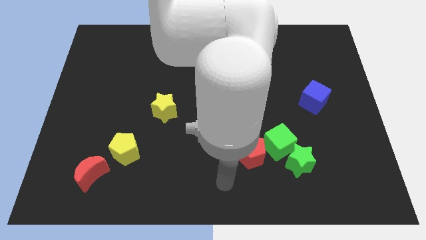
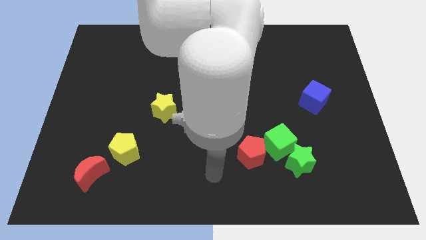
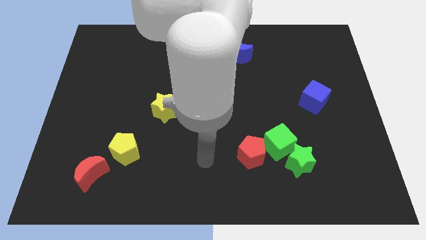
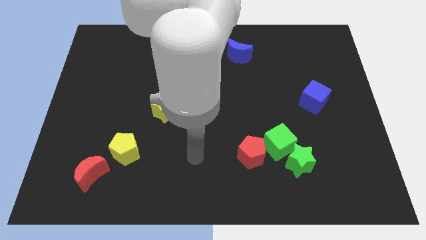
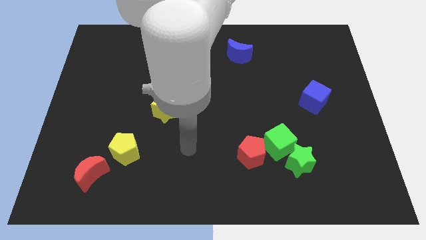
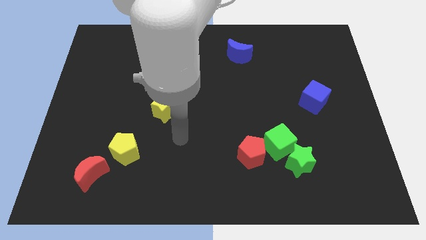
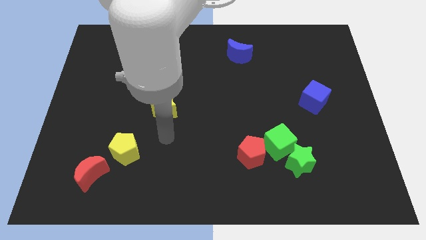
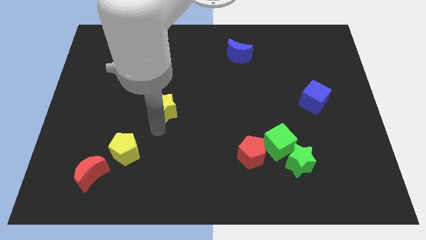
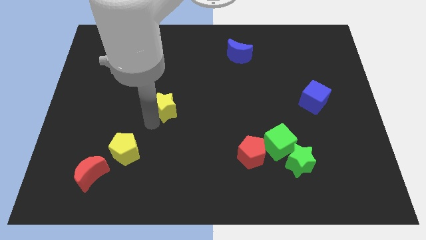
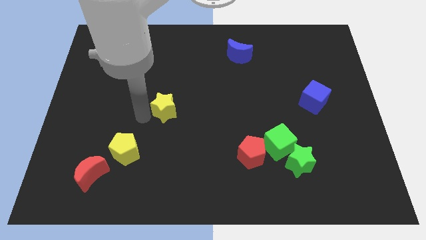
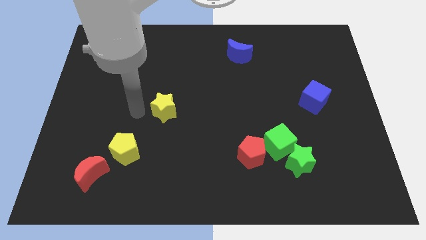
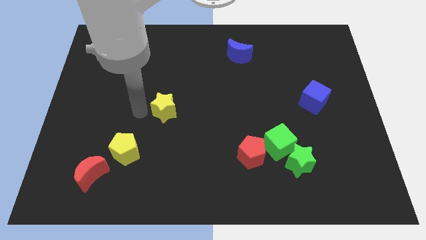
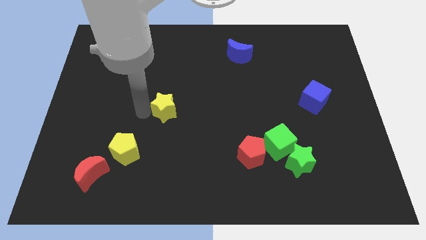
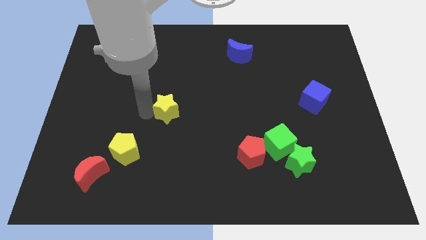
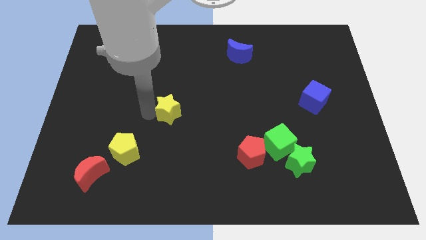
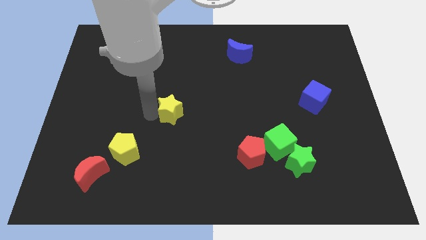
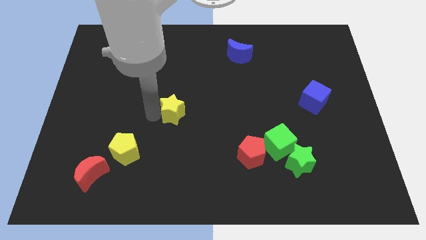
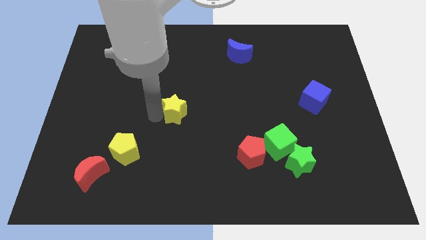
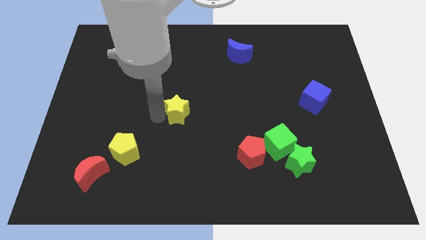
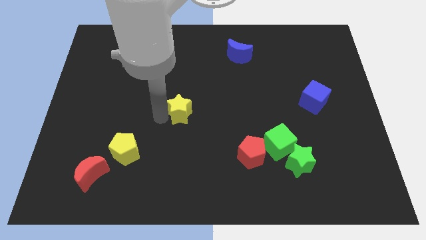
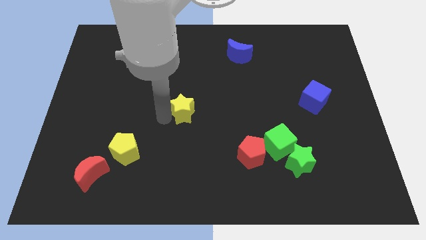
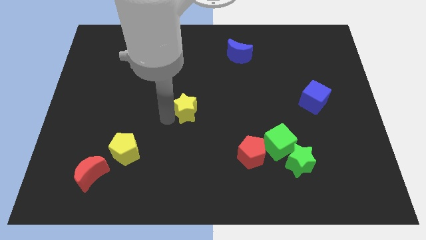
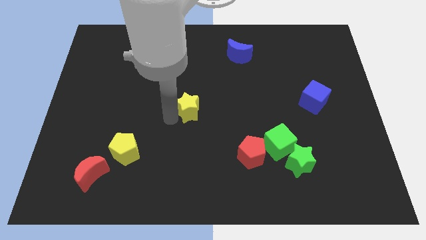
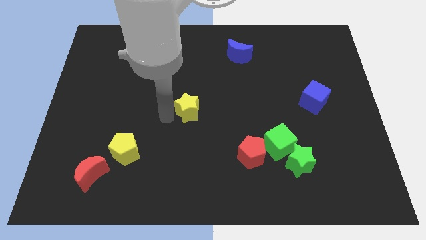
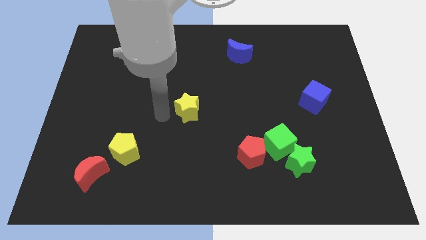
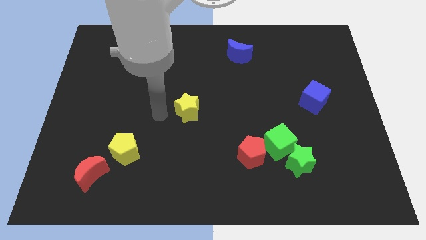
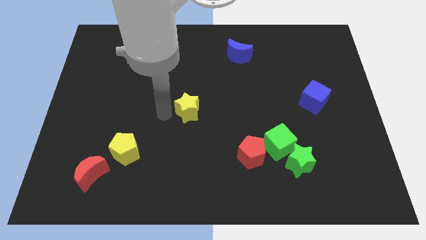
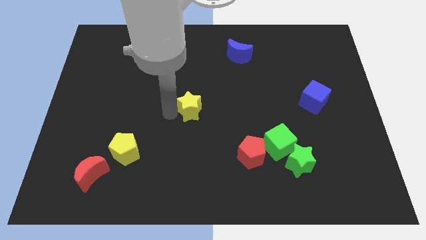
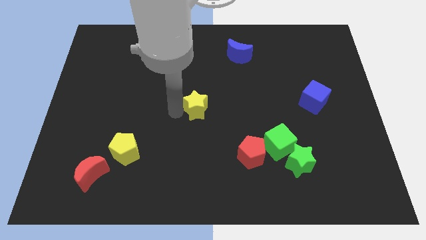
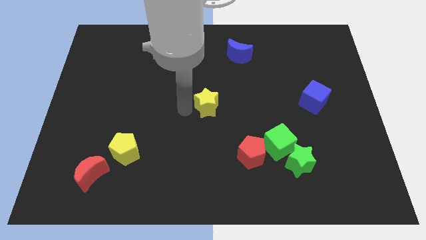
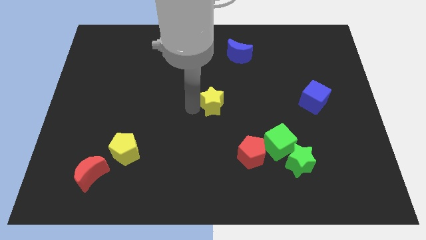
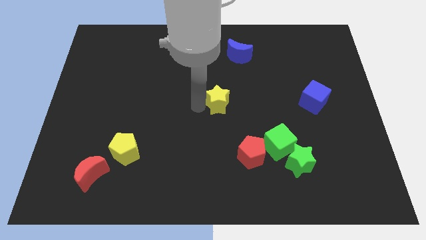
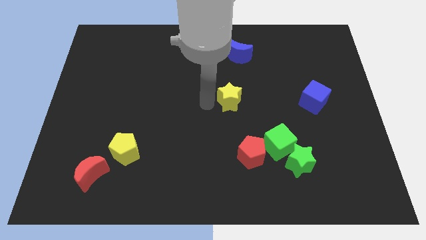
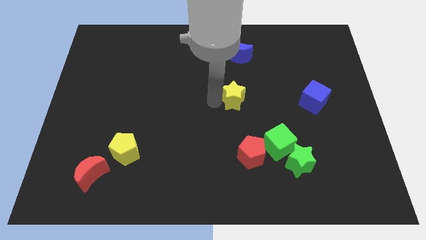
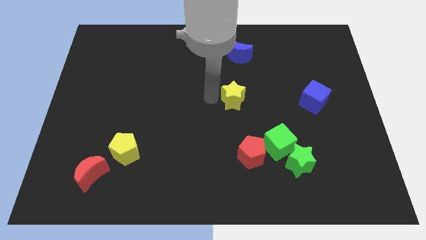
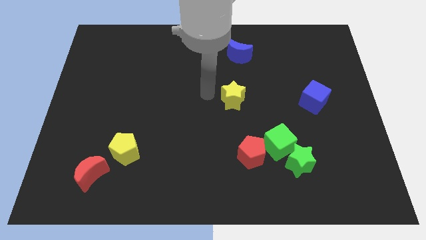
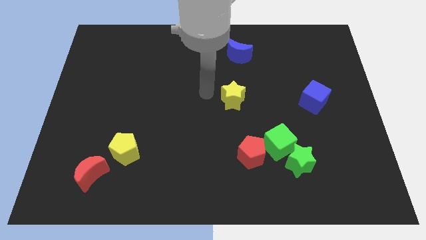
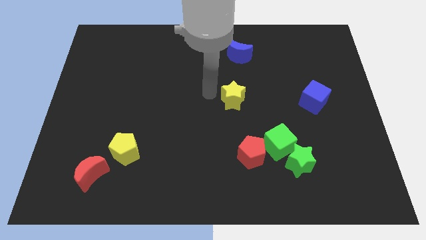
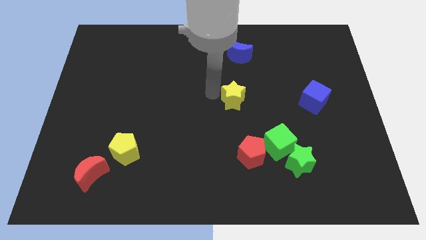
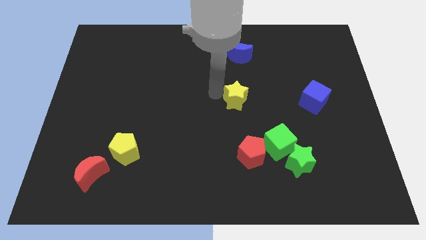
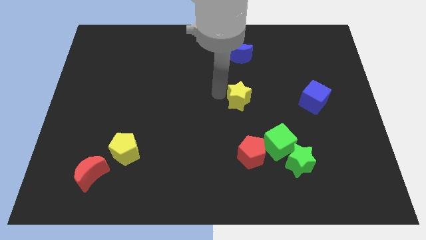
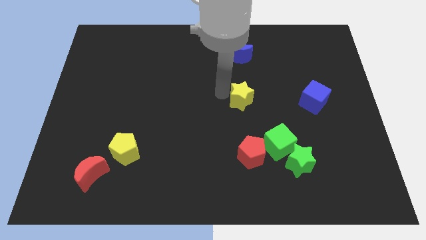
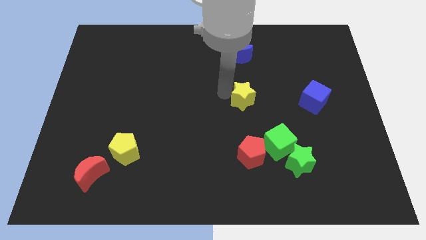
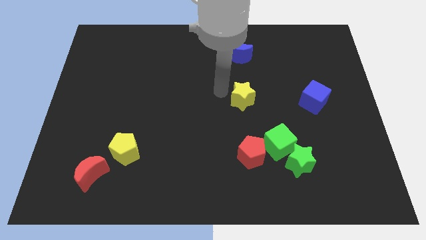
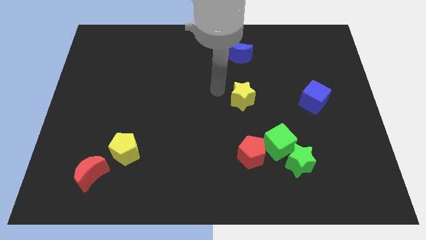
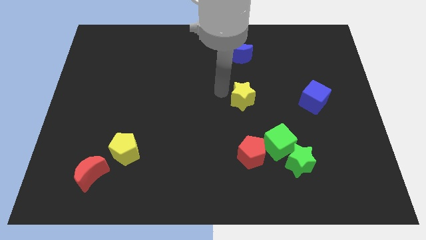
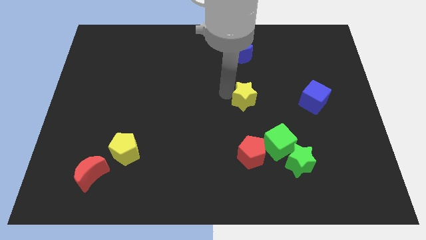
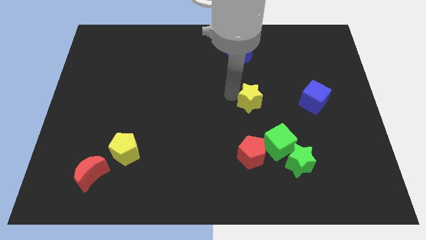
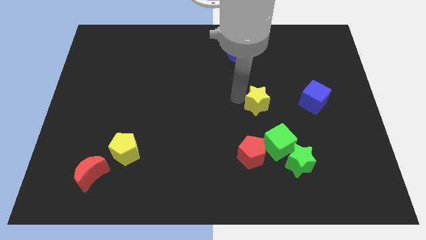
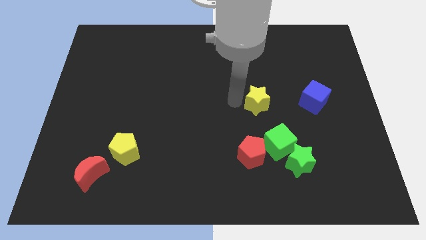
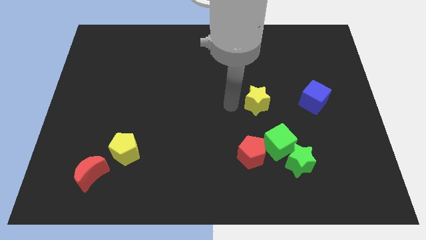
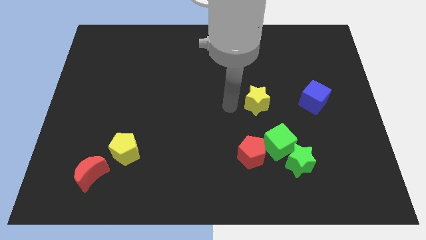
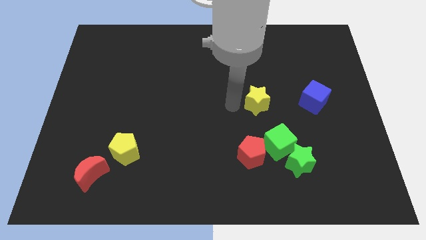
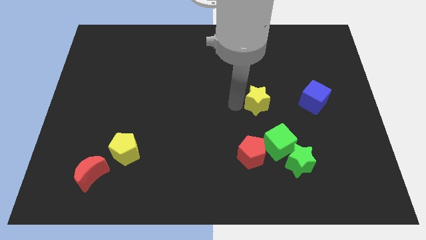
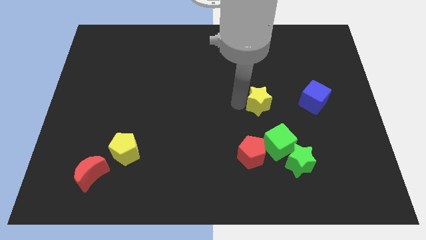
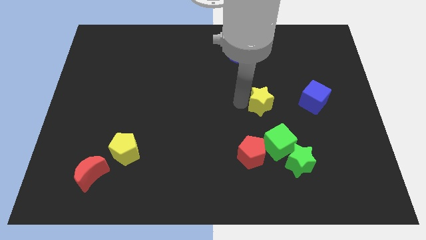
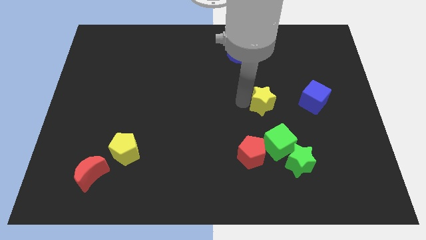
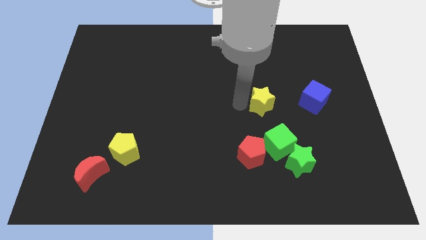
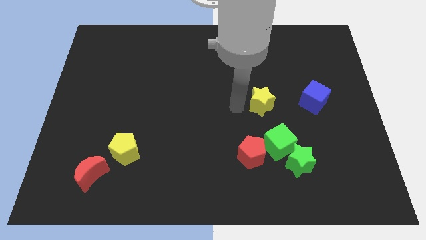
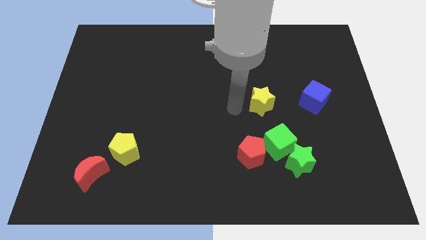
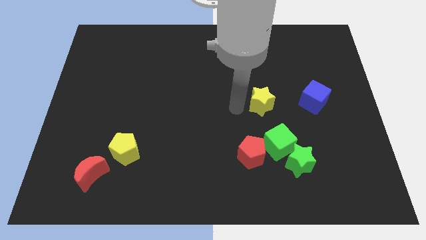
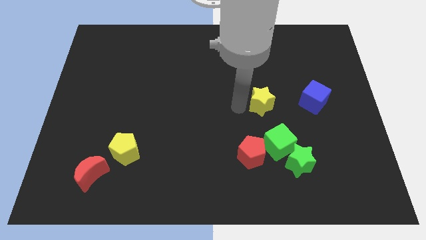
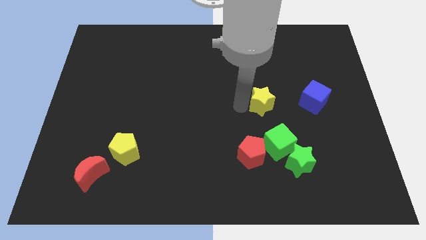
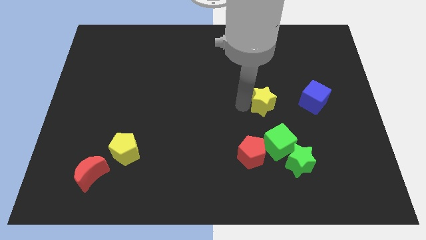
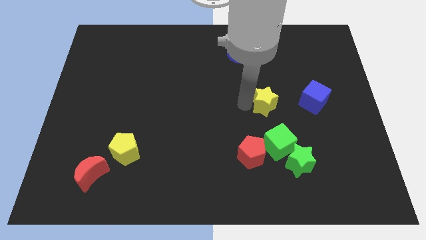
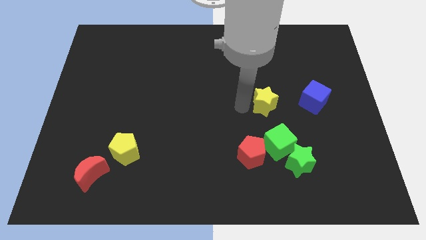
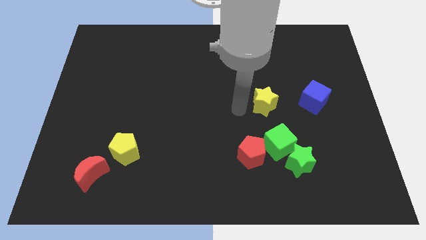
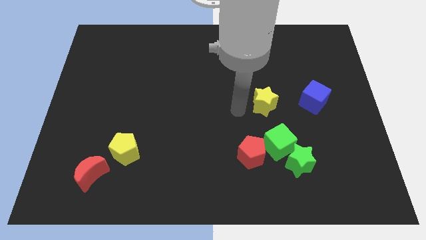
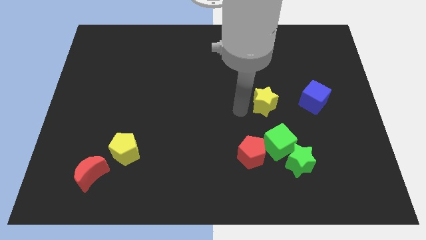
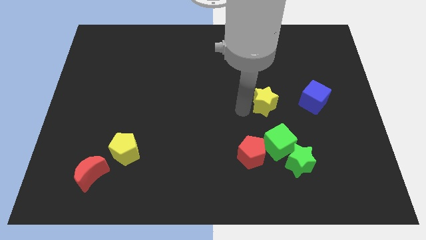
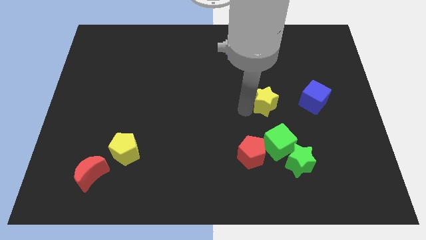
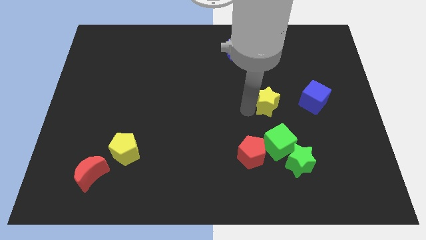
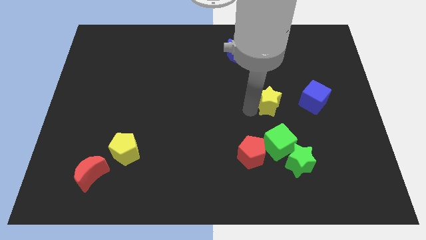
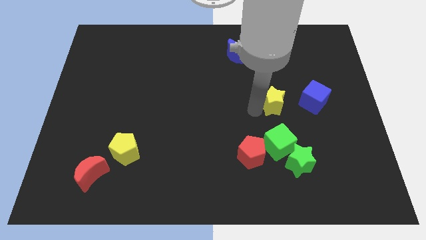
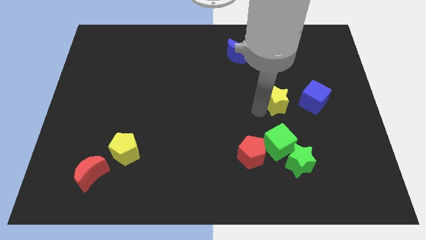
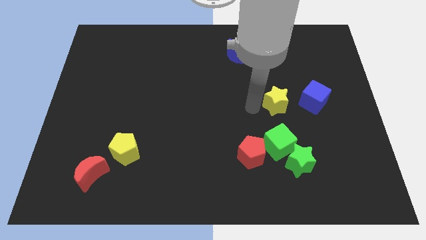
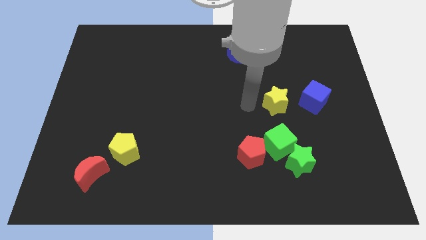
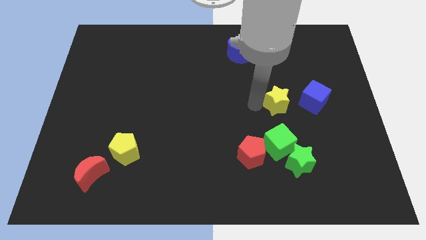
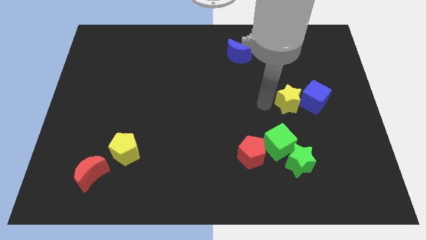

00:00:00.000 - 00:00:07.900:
push the yellow star close to the blue cube

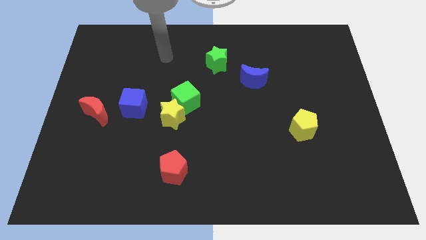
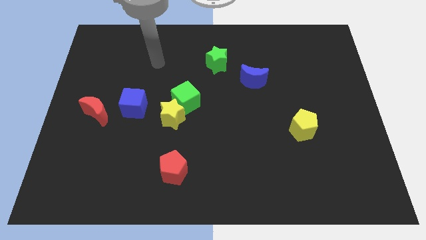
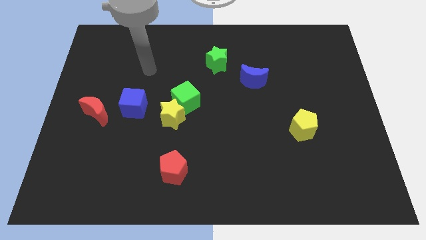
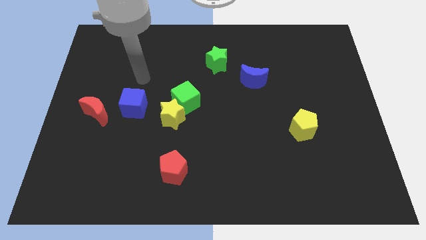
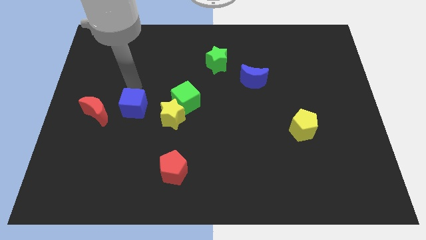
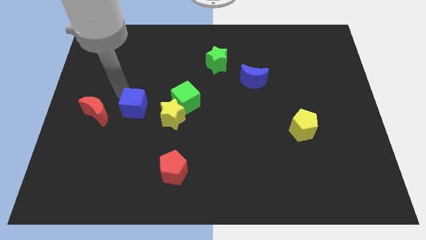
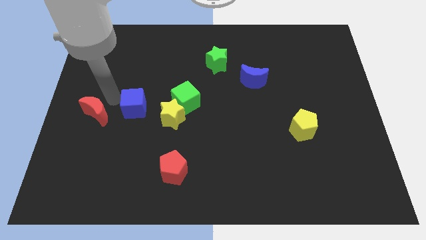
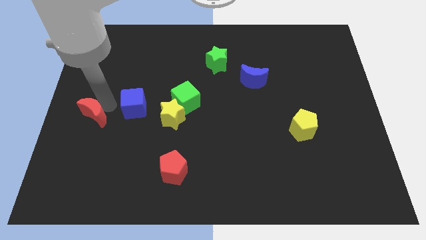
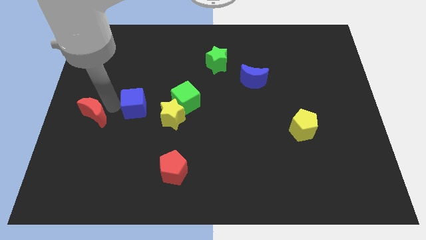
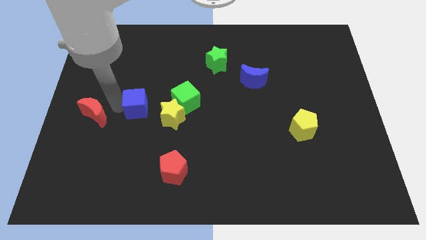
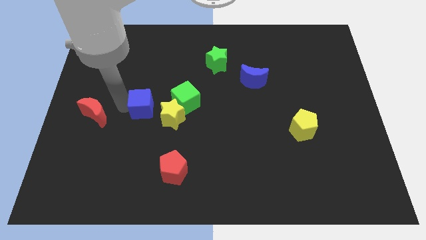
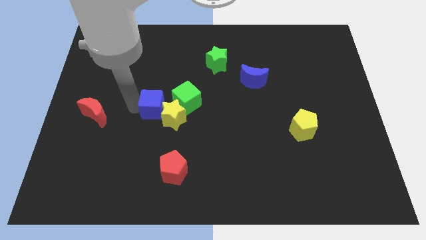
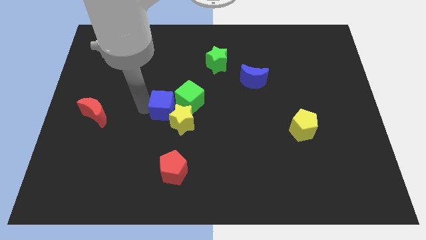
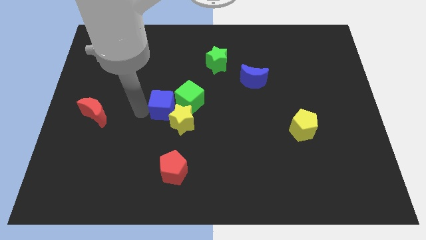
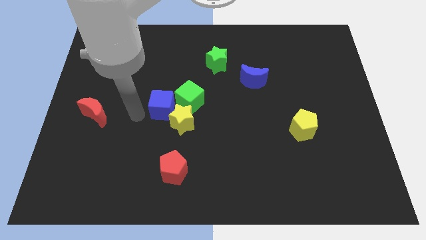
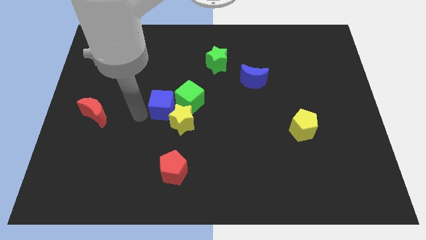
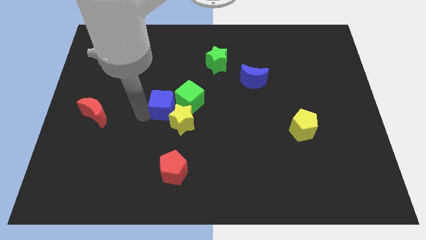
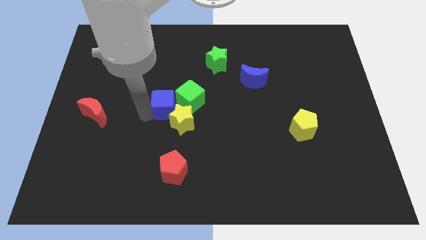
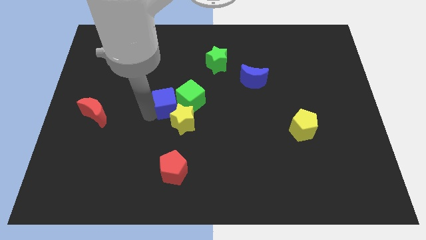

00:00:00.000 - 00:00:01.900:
push the blue cube to the green cube
